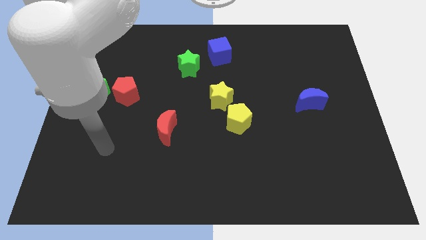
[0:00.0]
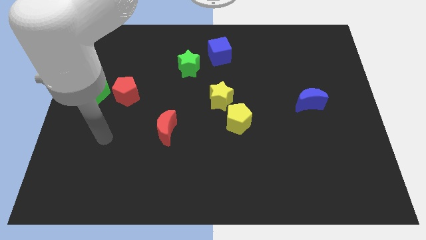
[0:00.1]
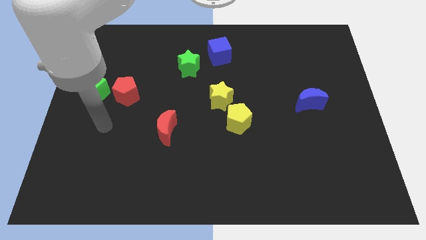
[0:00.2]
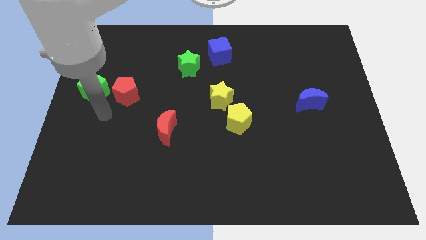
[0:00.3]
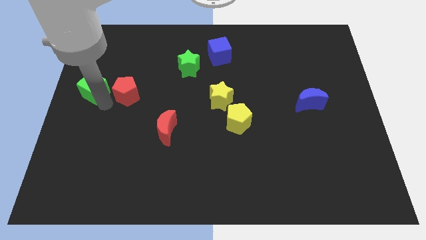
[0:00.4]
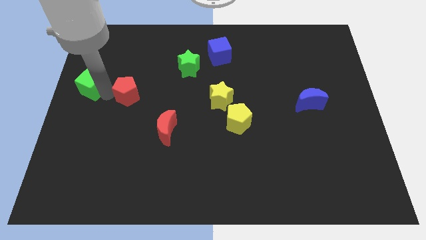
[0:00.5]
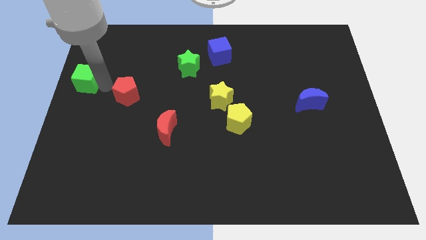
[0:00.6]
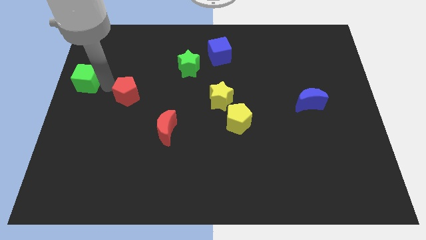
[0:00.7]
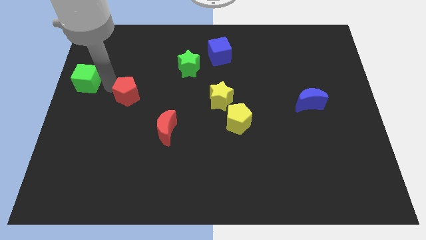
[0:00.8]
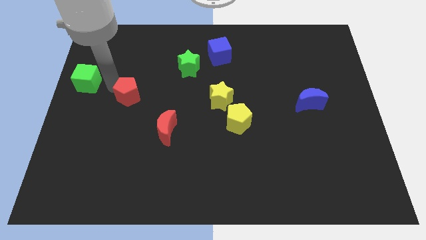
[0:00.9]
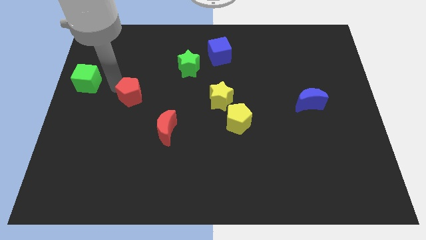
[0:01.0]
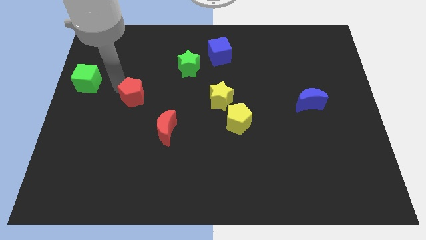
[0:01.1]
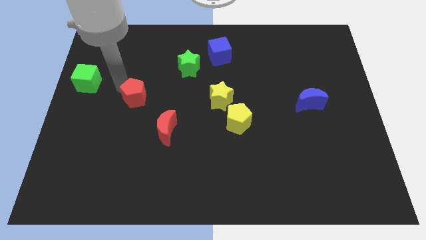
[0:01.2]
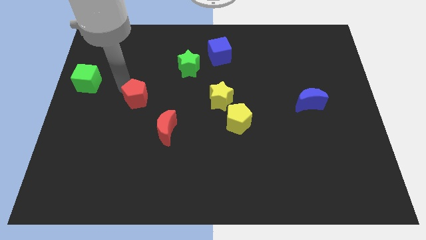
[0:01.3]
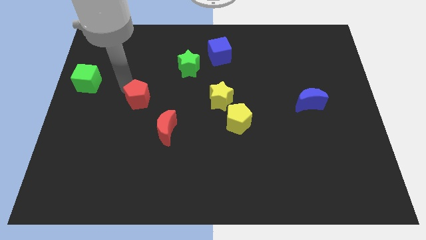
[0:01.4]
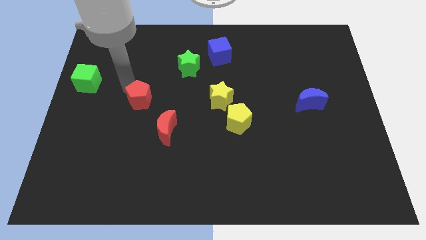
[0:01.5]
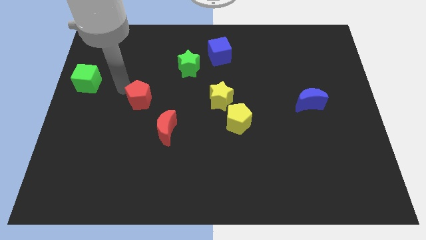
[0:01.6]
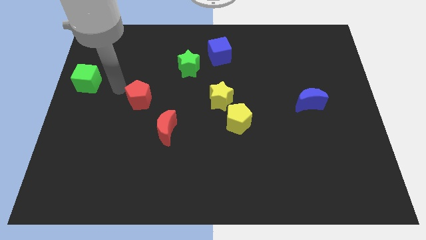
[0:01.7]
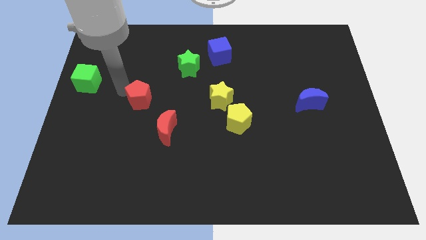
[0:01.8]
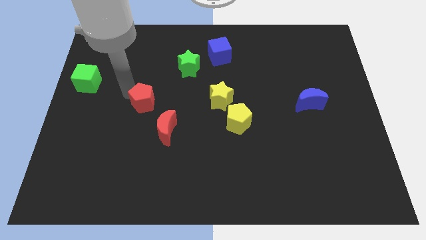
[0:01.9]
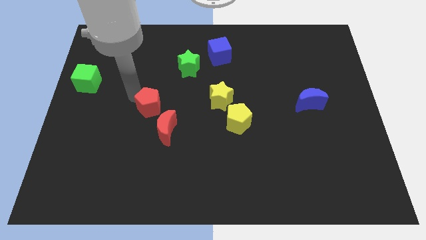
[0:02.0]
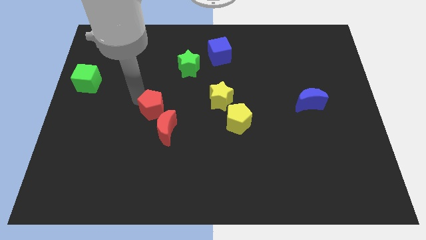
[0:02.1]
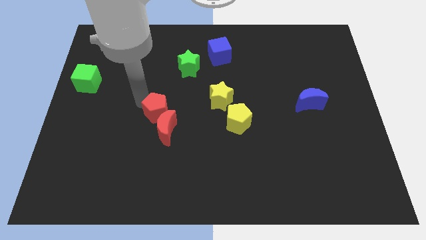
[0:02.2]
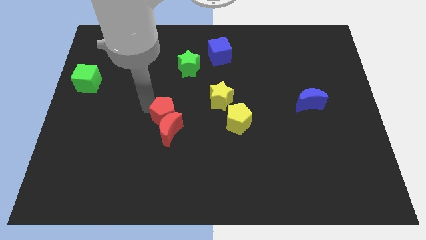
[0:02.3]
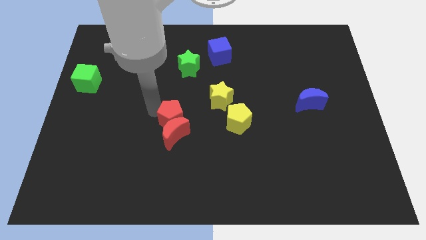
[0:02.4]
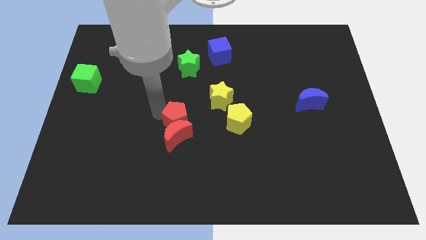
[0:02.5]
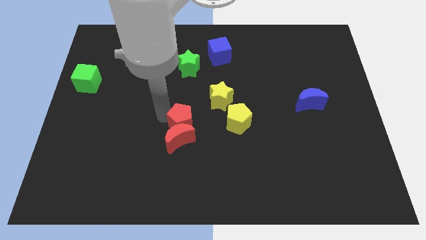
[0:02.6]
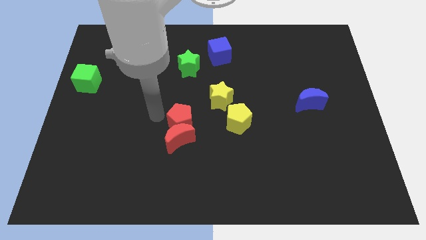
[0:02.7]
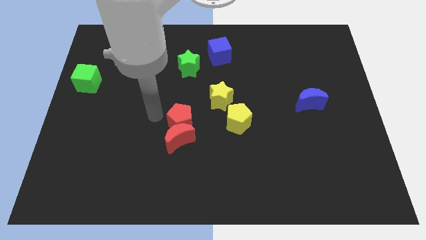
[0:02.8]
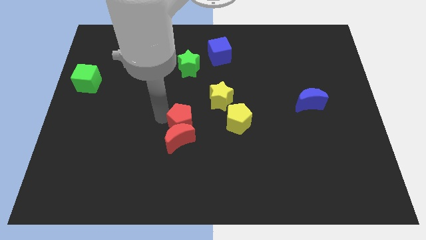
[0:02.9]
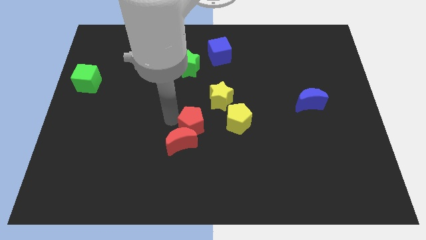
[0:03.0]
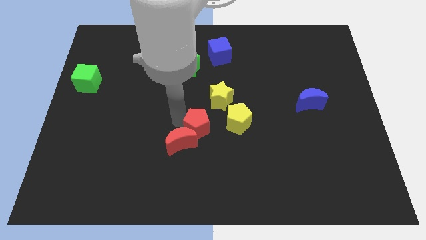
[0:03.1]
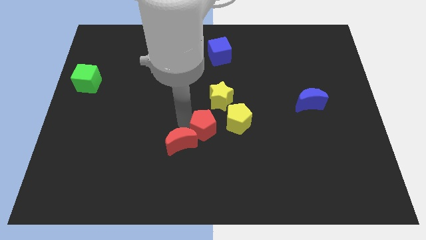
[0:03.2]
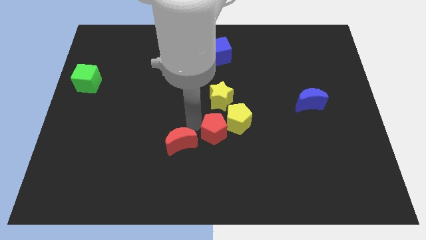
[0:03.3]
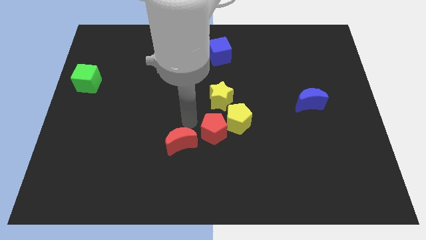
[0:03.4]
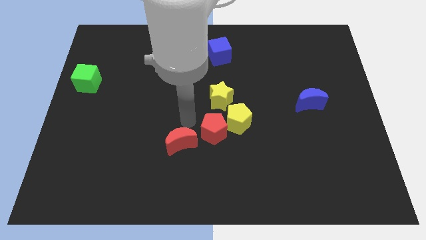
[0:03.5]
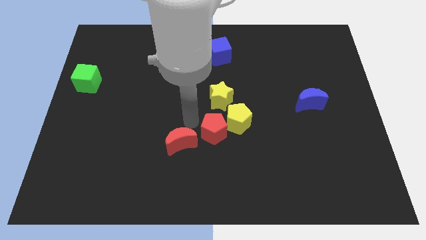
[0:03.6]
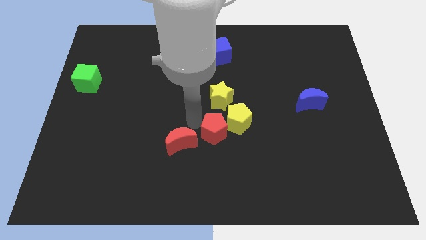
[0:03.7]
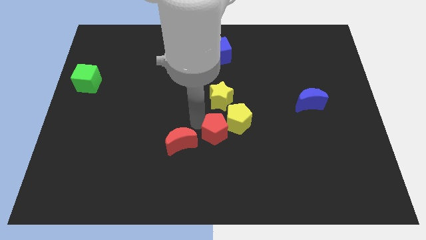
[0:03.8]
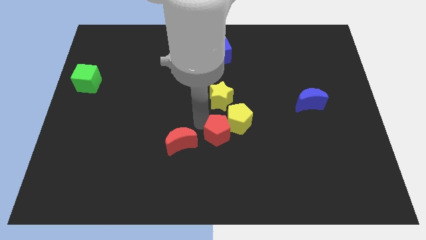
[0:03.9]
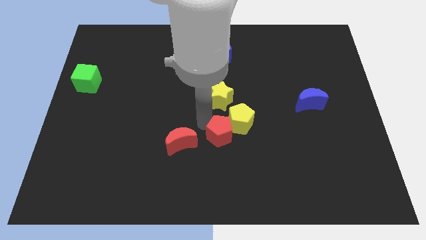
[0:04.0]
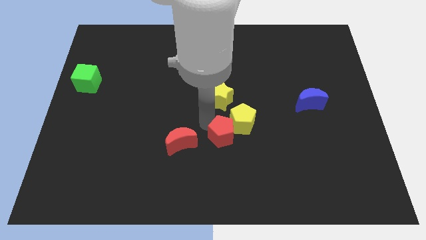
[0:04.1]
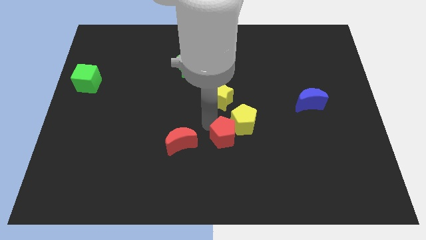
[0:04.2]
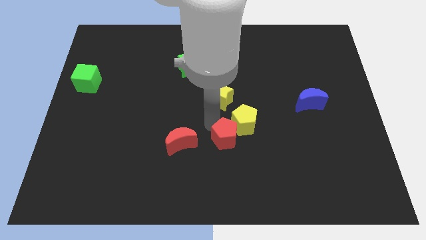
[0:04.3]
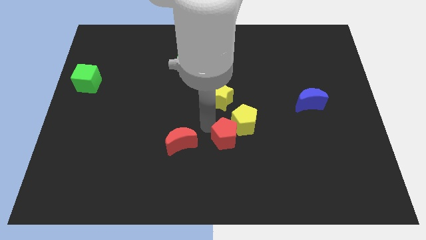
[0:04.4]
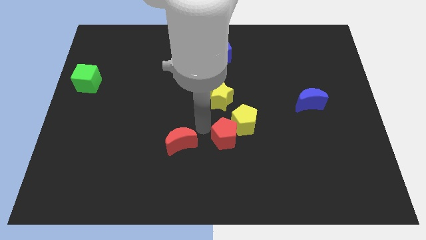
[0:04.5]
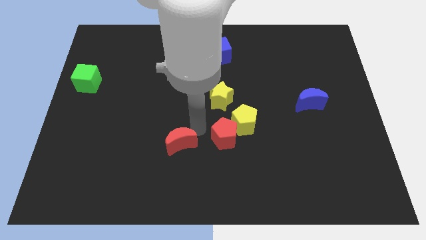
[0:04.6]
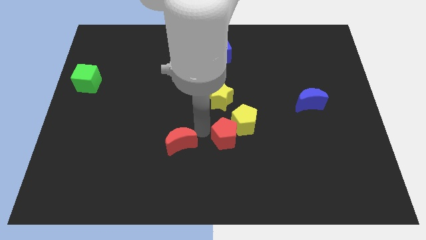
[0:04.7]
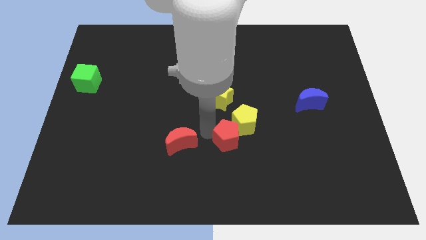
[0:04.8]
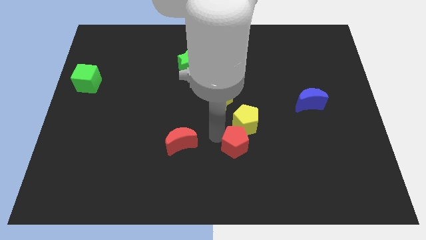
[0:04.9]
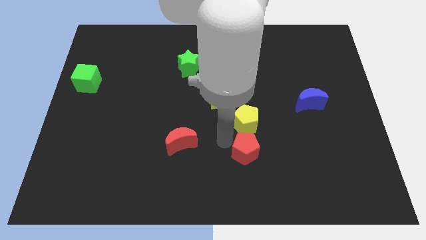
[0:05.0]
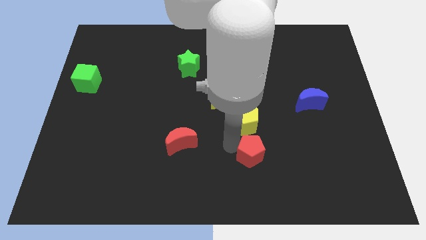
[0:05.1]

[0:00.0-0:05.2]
slide the red pentagon to the bottom right side of the yellow pentagon

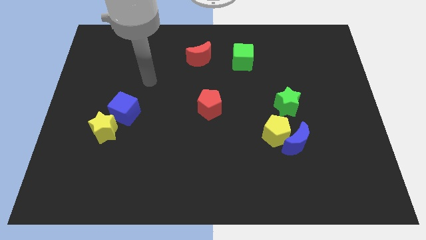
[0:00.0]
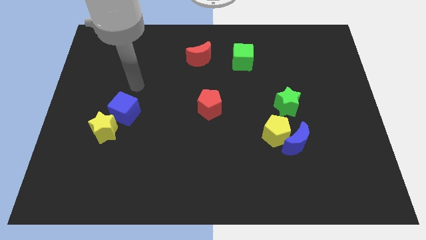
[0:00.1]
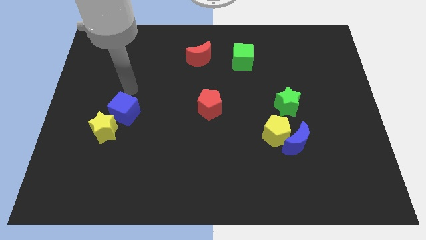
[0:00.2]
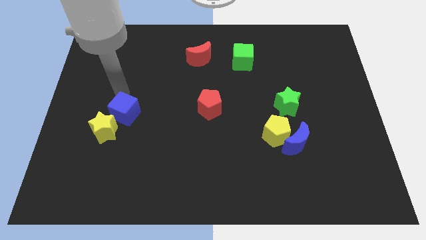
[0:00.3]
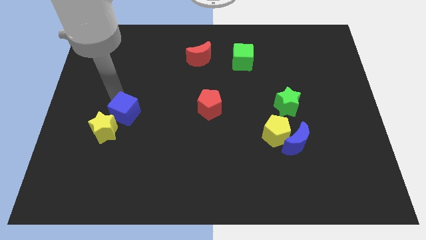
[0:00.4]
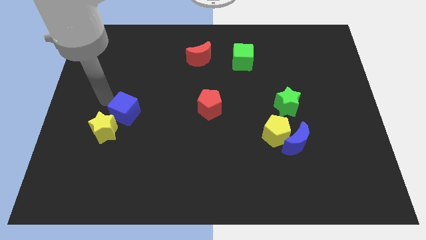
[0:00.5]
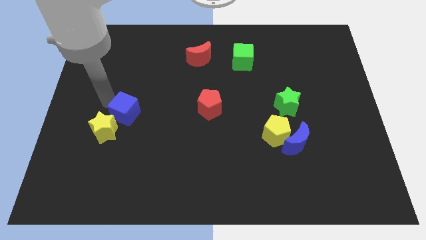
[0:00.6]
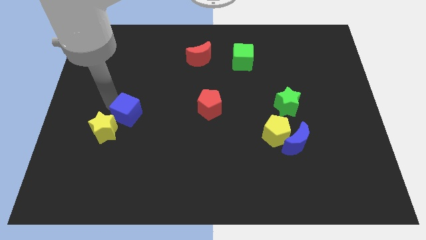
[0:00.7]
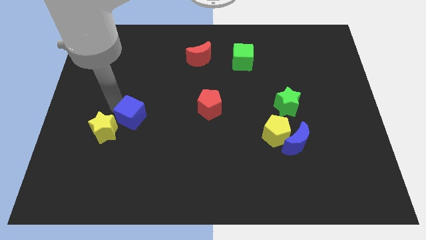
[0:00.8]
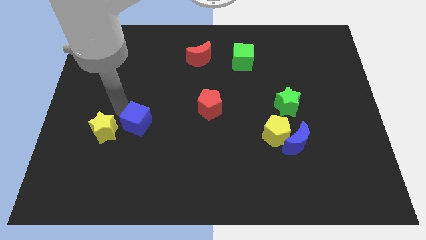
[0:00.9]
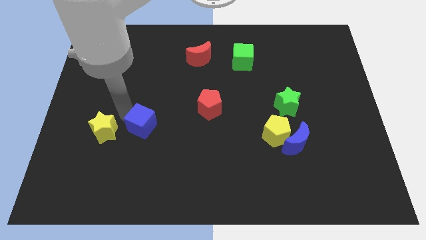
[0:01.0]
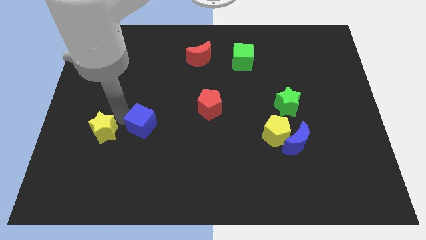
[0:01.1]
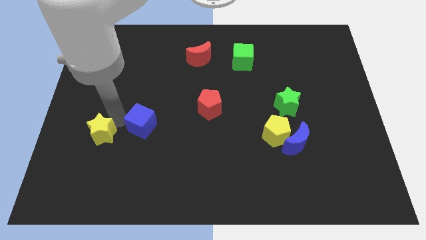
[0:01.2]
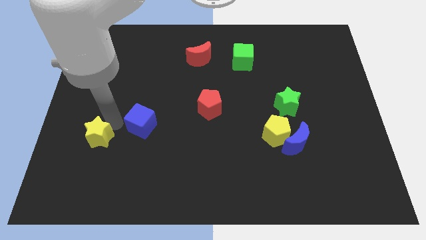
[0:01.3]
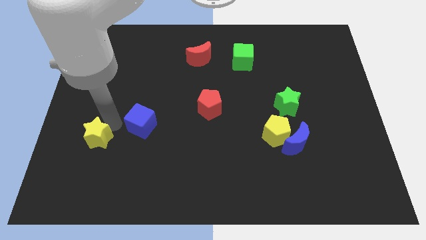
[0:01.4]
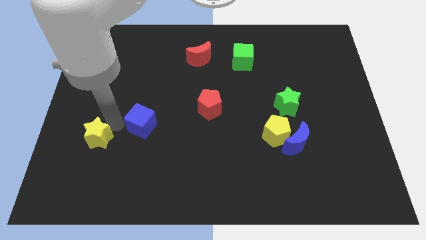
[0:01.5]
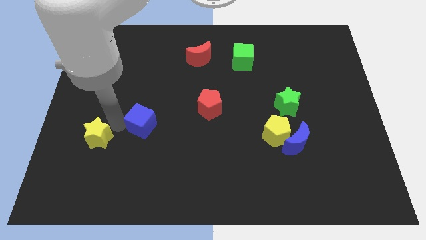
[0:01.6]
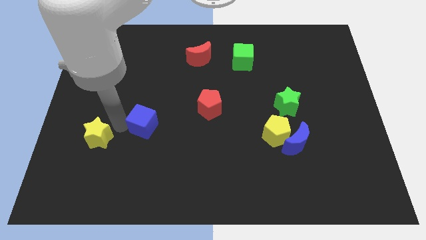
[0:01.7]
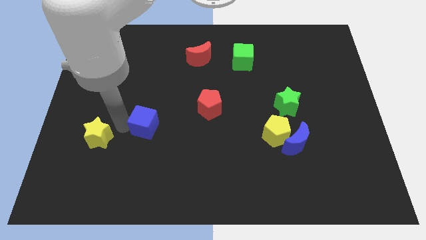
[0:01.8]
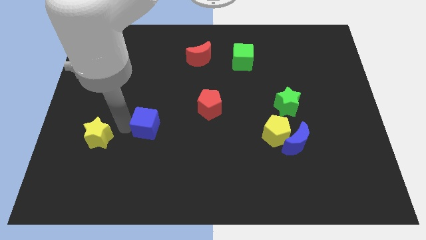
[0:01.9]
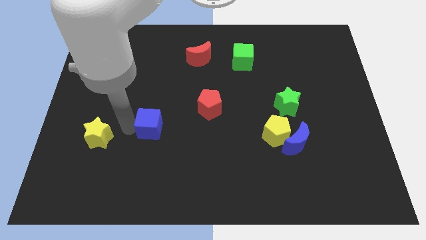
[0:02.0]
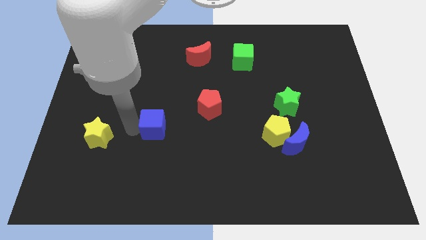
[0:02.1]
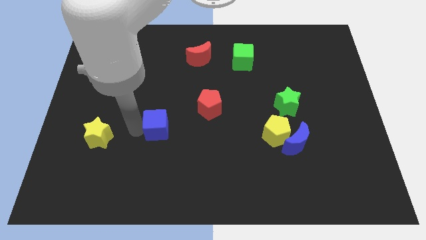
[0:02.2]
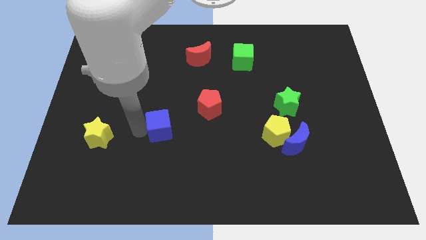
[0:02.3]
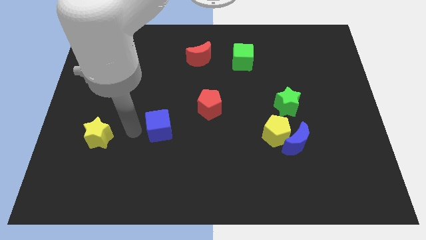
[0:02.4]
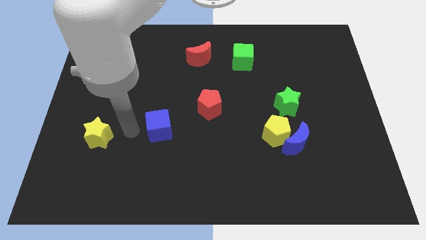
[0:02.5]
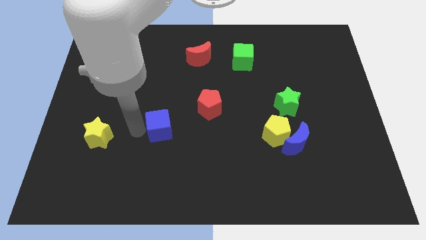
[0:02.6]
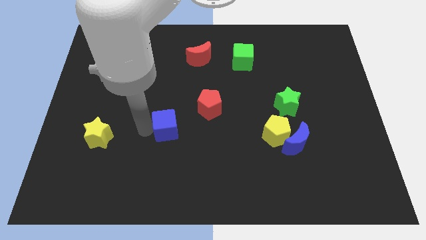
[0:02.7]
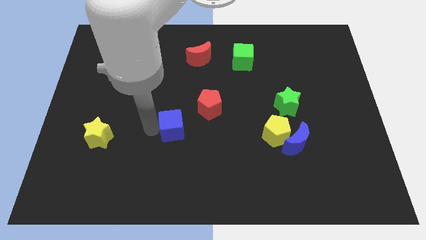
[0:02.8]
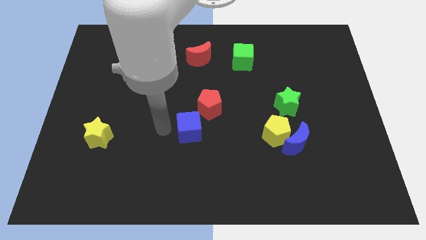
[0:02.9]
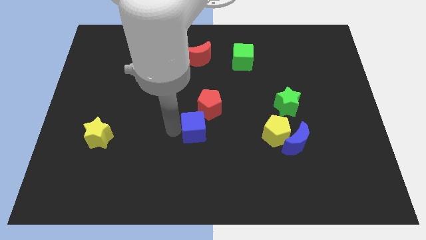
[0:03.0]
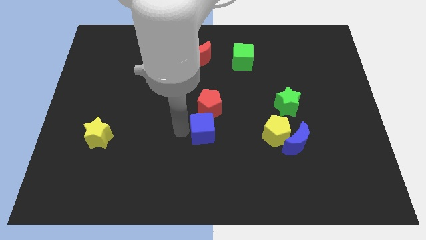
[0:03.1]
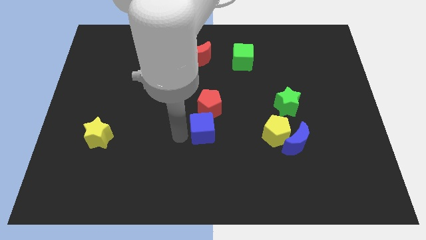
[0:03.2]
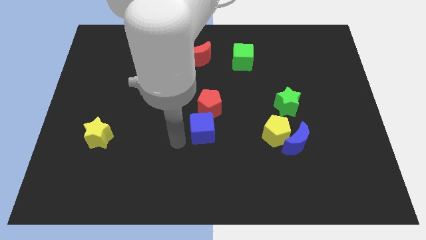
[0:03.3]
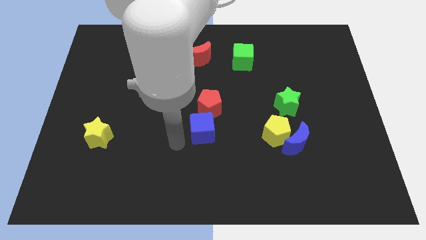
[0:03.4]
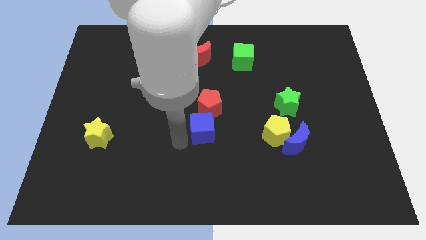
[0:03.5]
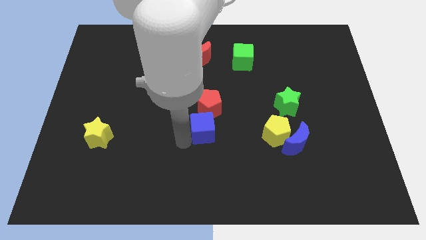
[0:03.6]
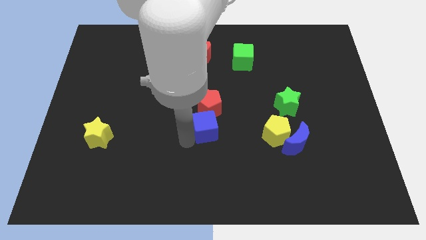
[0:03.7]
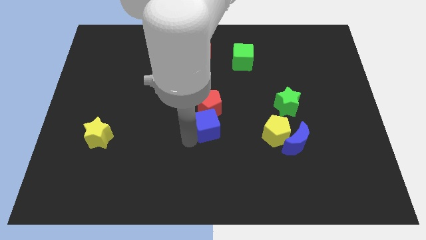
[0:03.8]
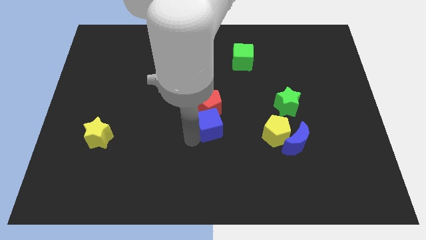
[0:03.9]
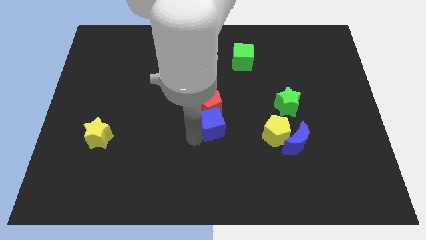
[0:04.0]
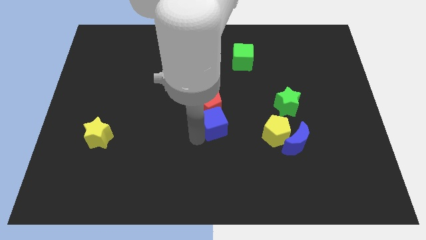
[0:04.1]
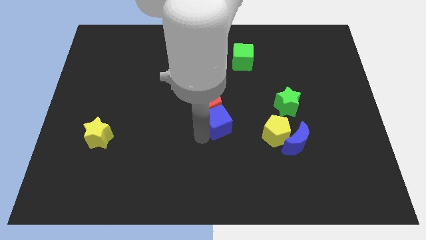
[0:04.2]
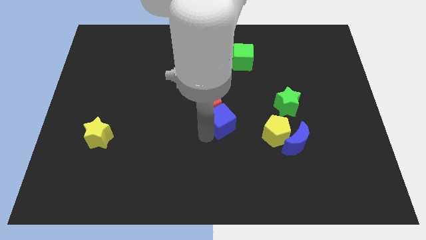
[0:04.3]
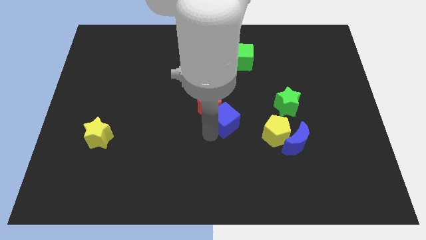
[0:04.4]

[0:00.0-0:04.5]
slide the blue cube to the right of the red pentagon
